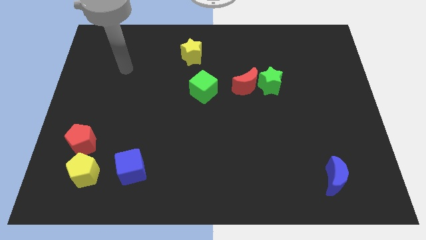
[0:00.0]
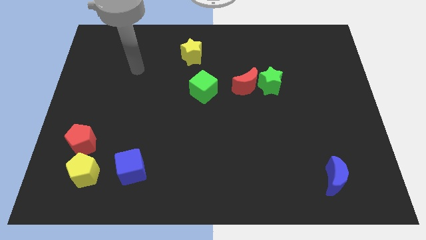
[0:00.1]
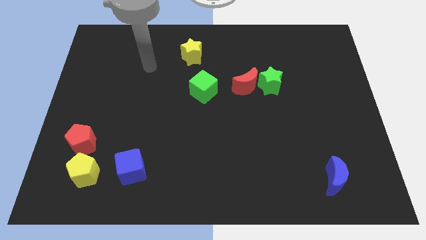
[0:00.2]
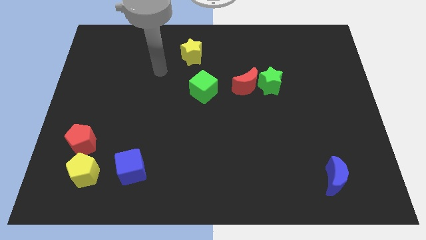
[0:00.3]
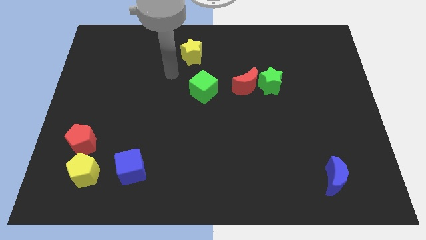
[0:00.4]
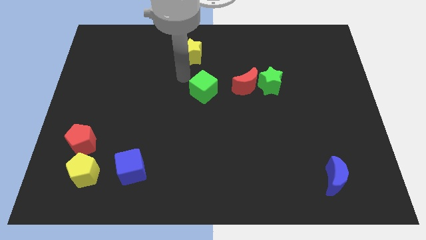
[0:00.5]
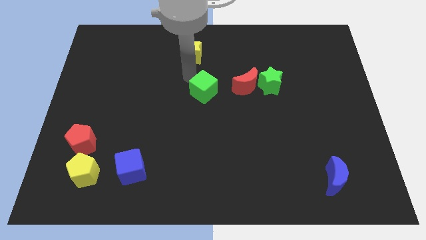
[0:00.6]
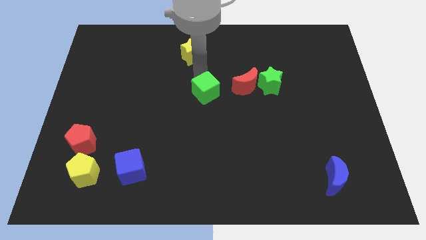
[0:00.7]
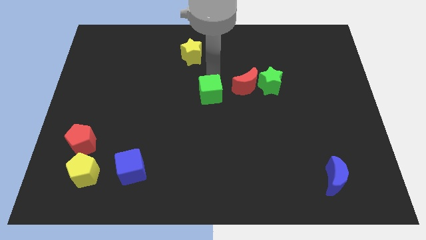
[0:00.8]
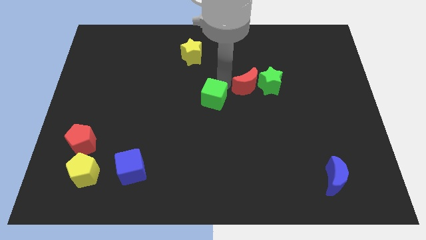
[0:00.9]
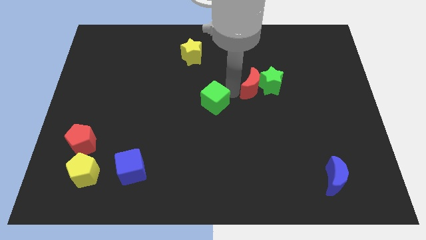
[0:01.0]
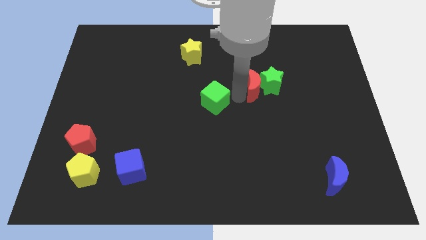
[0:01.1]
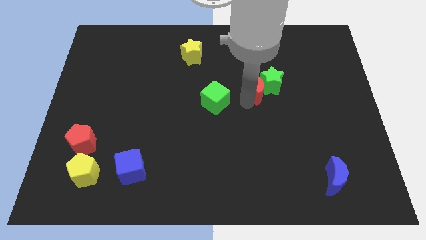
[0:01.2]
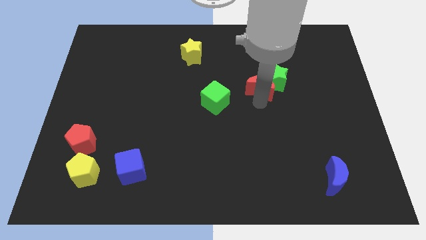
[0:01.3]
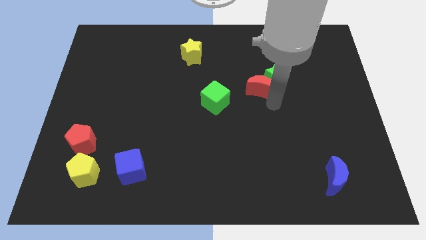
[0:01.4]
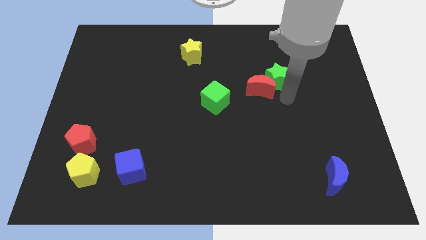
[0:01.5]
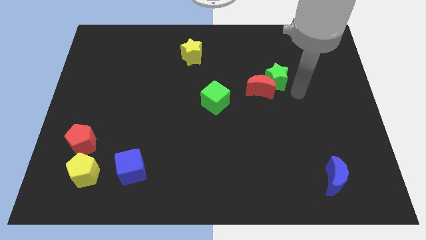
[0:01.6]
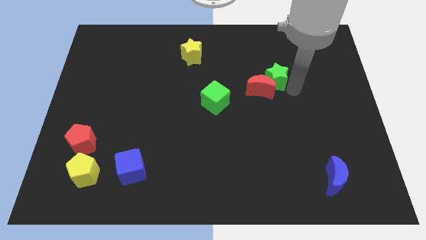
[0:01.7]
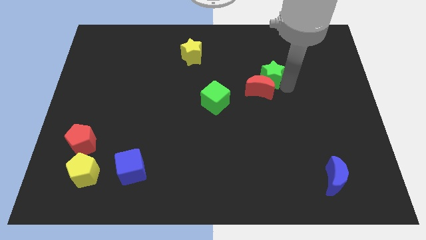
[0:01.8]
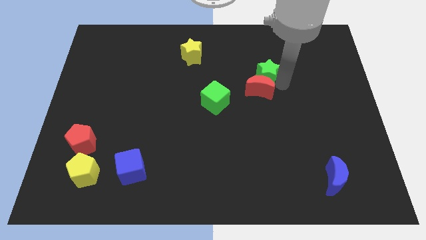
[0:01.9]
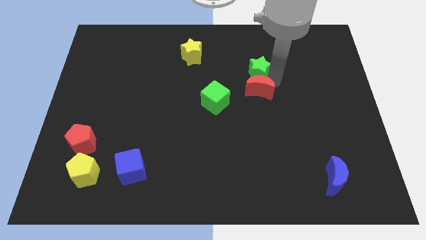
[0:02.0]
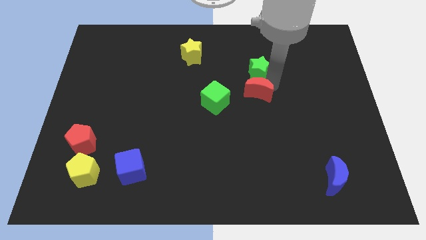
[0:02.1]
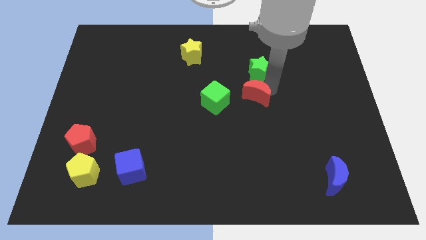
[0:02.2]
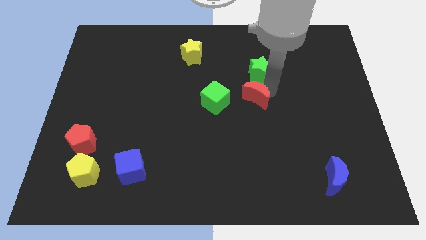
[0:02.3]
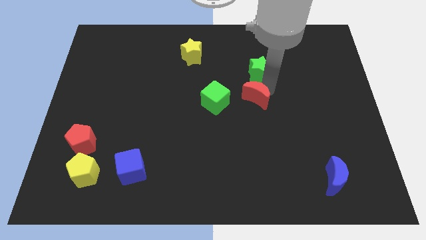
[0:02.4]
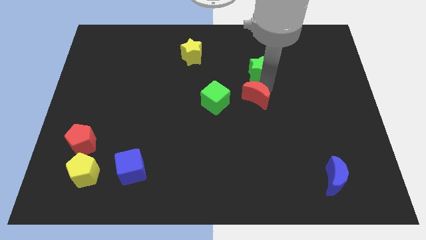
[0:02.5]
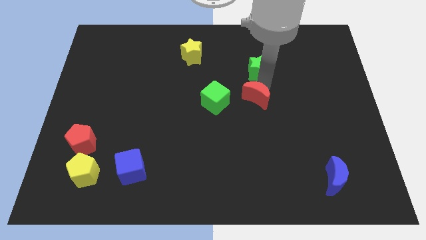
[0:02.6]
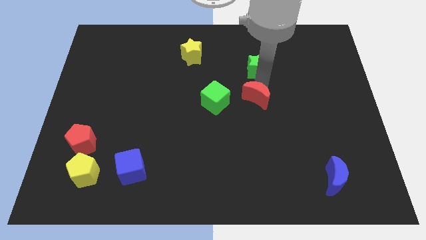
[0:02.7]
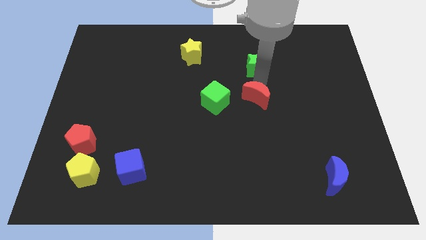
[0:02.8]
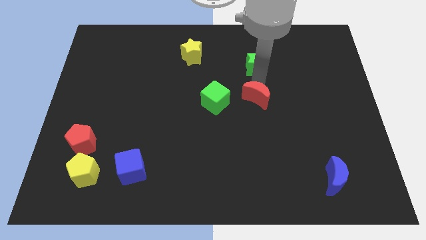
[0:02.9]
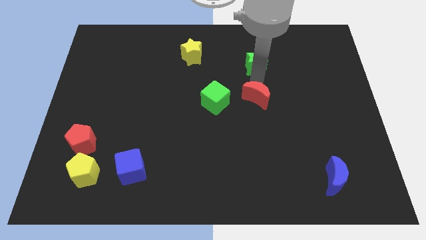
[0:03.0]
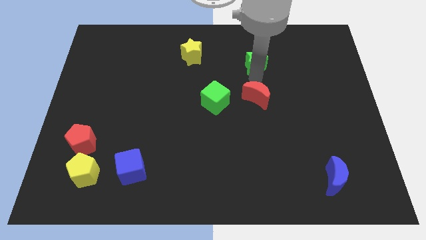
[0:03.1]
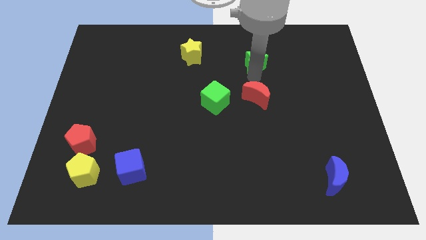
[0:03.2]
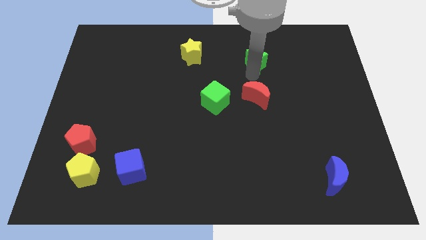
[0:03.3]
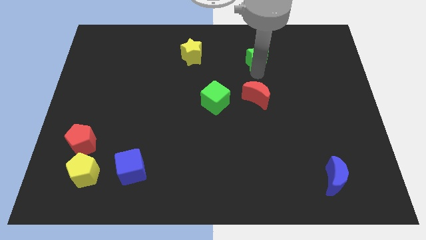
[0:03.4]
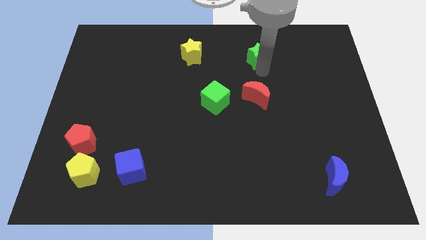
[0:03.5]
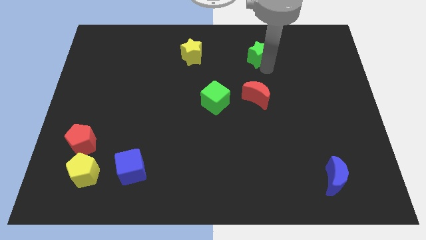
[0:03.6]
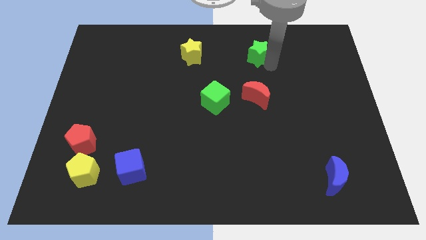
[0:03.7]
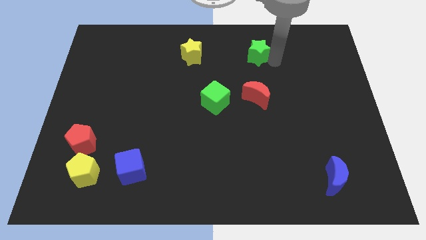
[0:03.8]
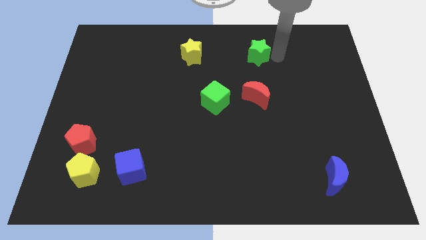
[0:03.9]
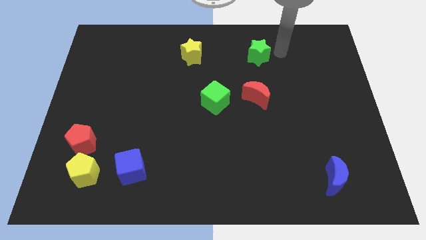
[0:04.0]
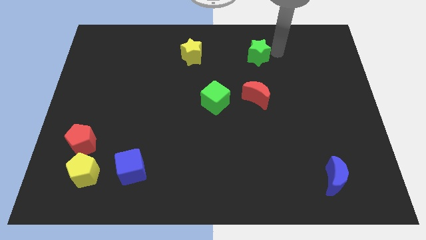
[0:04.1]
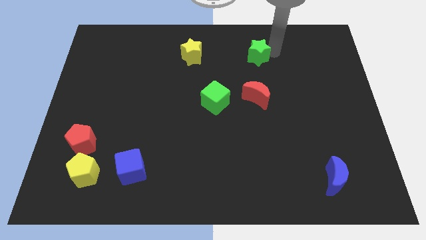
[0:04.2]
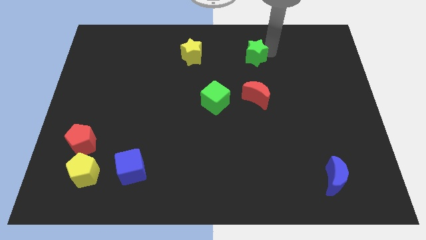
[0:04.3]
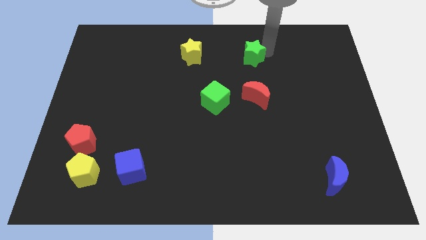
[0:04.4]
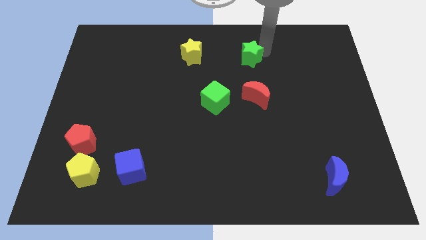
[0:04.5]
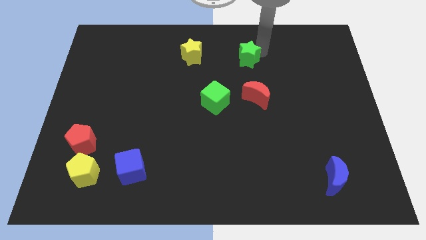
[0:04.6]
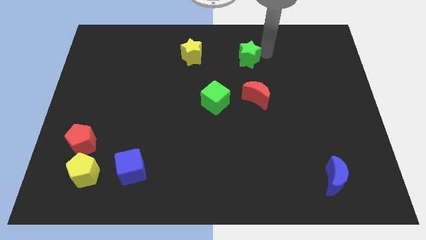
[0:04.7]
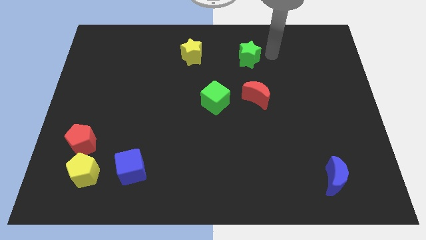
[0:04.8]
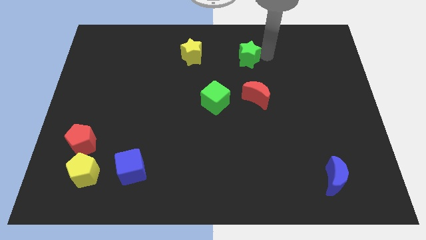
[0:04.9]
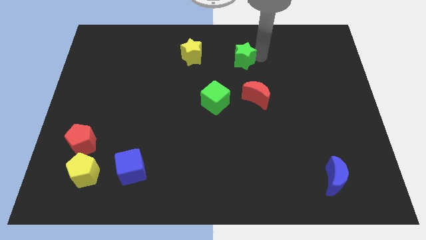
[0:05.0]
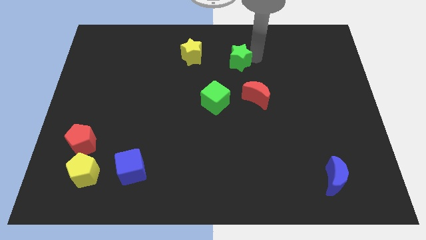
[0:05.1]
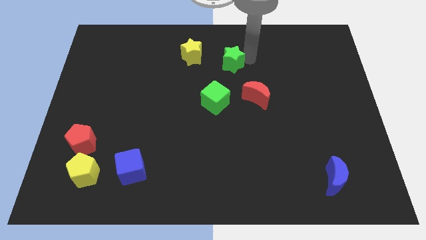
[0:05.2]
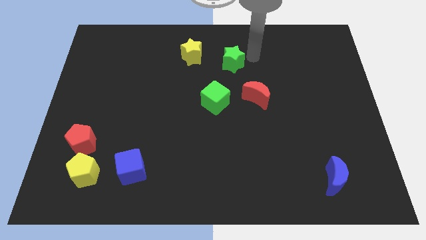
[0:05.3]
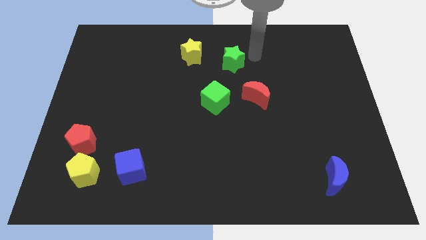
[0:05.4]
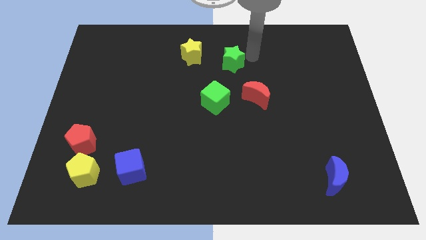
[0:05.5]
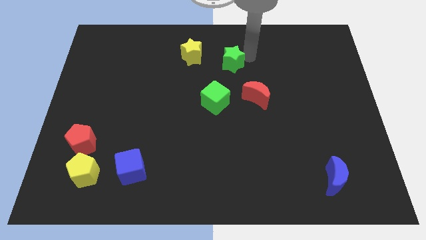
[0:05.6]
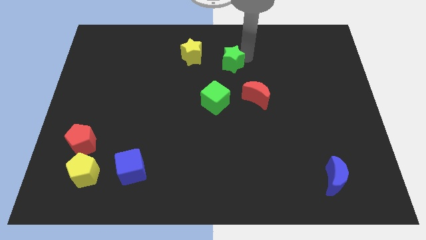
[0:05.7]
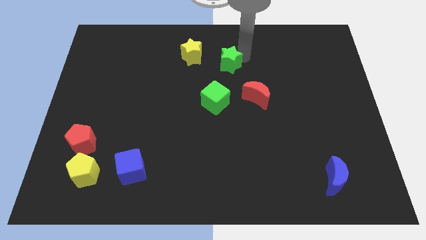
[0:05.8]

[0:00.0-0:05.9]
put the green star diagonally down and to the right of the yellow star

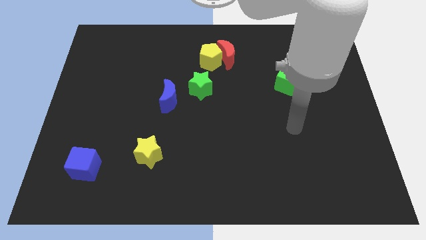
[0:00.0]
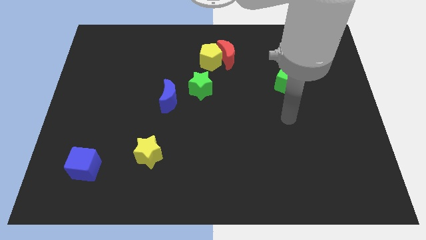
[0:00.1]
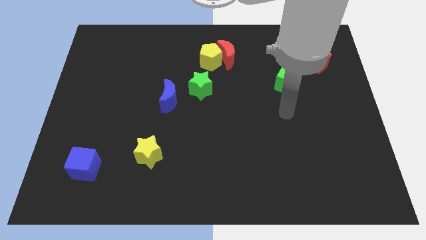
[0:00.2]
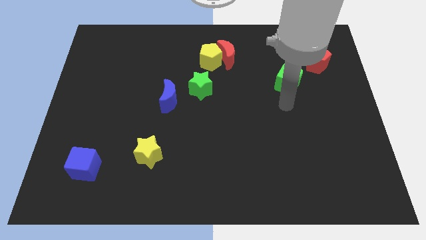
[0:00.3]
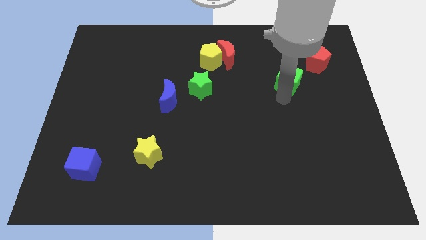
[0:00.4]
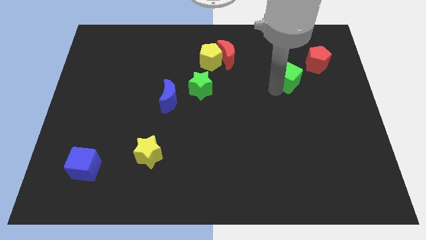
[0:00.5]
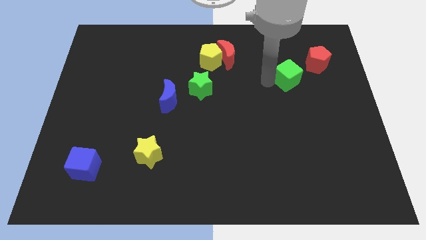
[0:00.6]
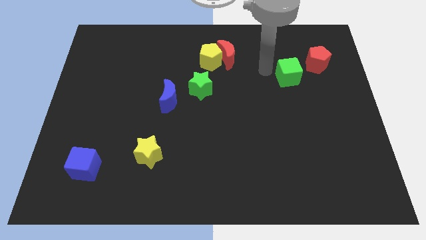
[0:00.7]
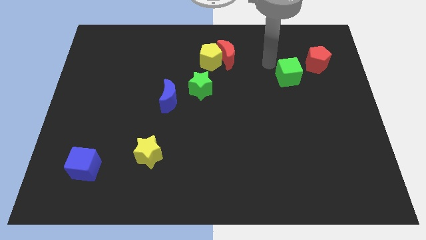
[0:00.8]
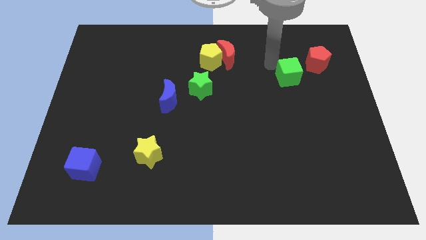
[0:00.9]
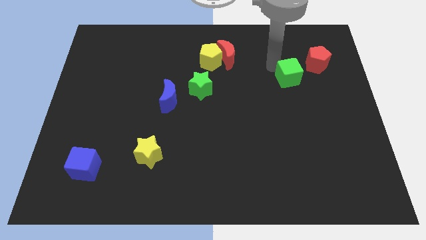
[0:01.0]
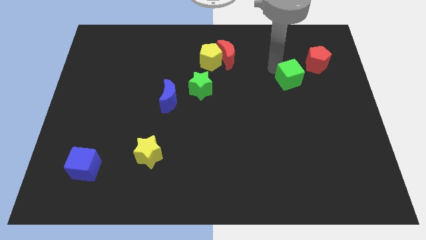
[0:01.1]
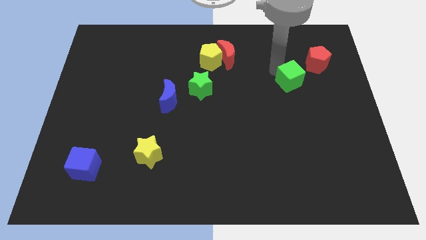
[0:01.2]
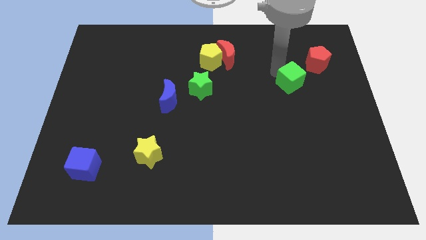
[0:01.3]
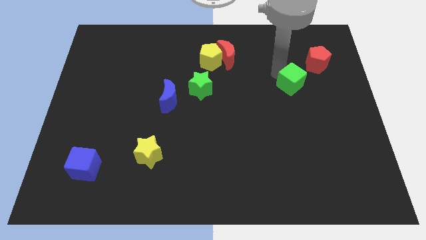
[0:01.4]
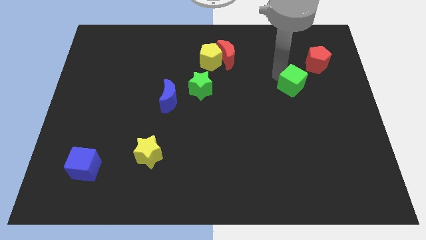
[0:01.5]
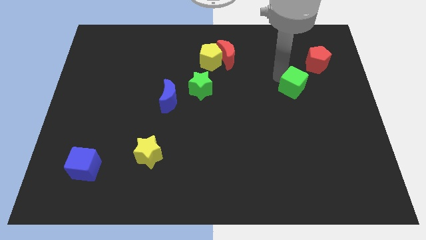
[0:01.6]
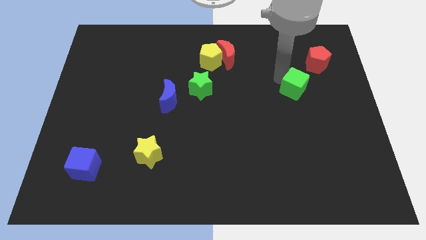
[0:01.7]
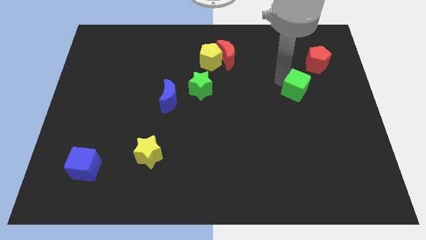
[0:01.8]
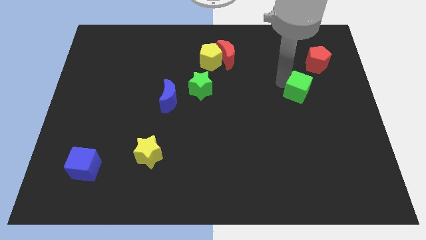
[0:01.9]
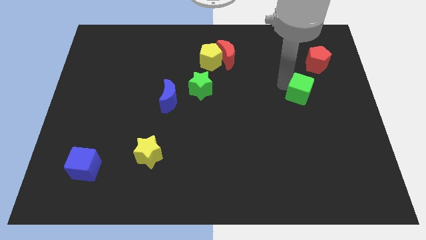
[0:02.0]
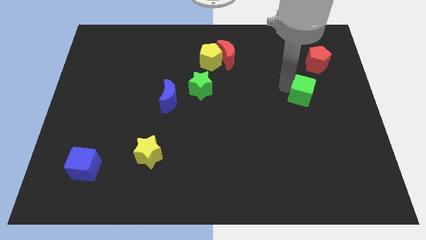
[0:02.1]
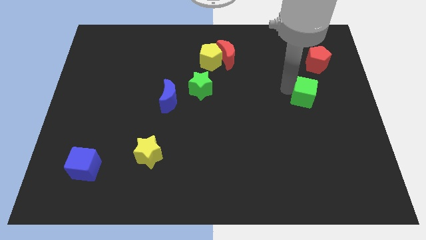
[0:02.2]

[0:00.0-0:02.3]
push the green cube below the red pentagon
